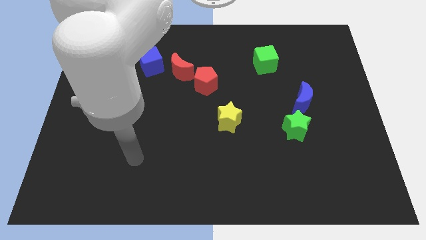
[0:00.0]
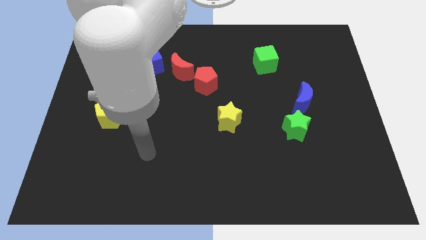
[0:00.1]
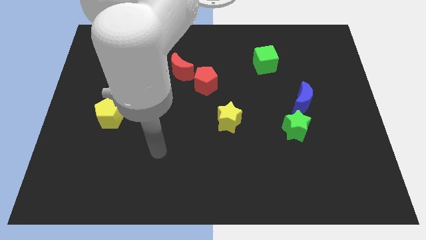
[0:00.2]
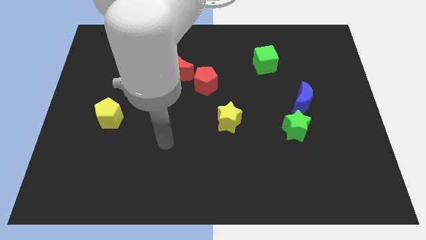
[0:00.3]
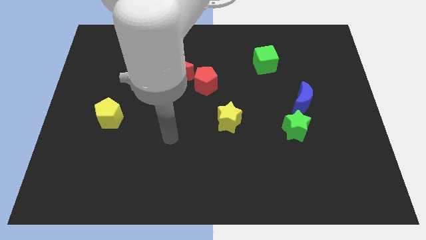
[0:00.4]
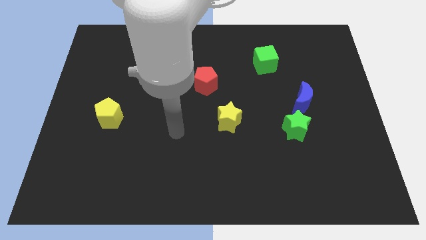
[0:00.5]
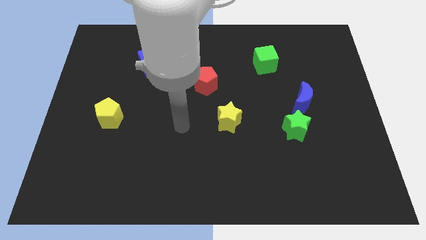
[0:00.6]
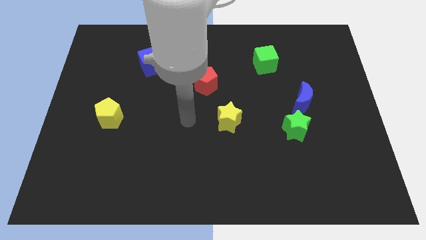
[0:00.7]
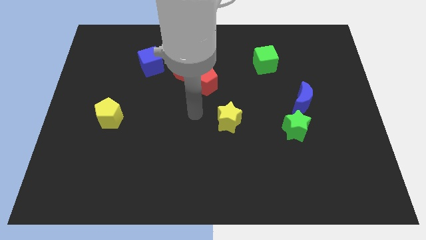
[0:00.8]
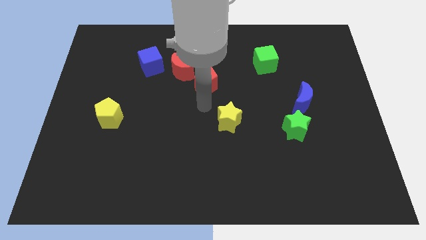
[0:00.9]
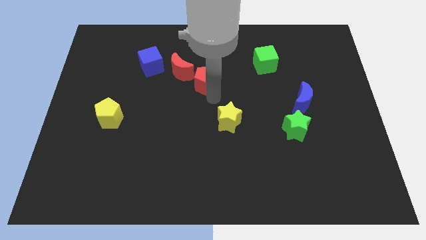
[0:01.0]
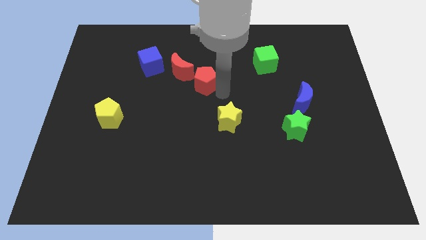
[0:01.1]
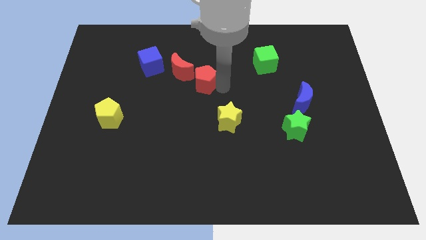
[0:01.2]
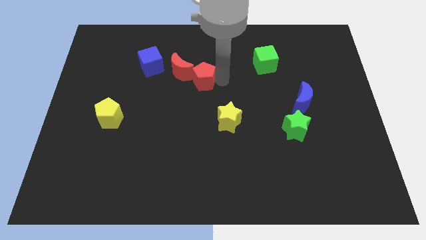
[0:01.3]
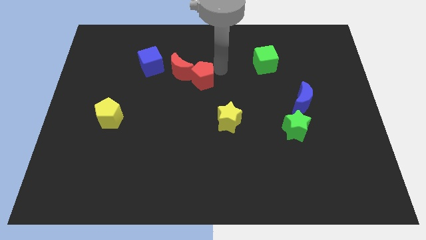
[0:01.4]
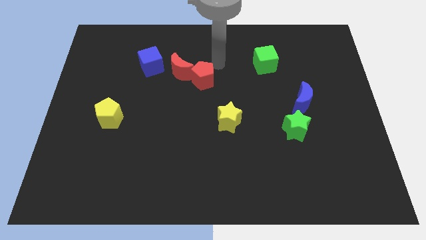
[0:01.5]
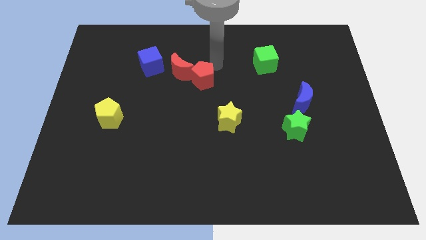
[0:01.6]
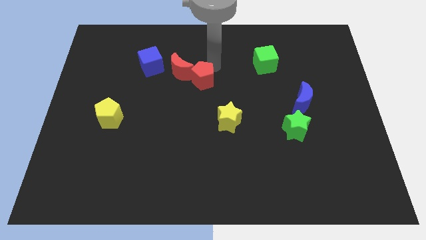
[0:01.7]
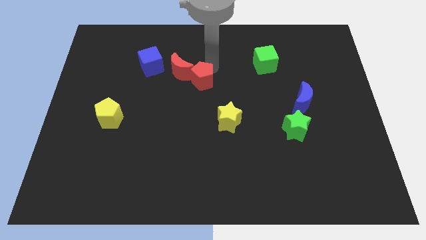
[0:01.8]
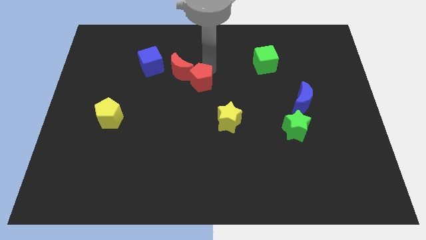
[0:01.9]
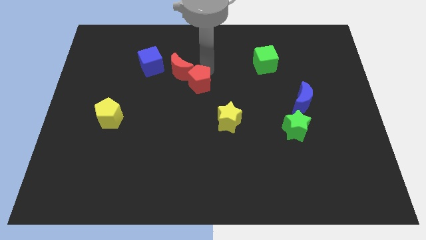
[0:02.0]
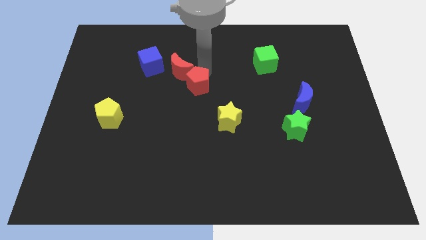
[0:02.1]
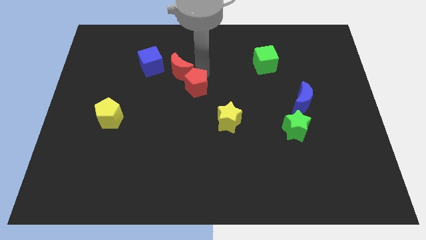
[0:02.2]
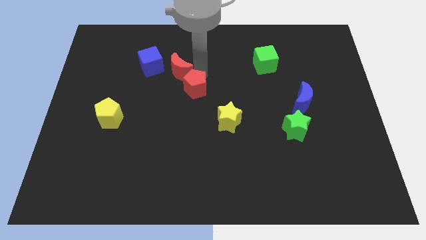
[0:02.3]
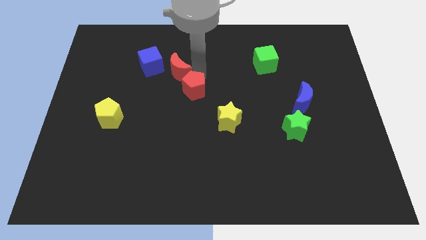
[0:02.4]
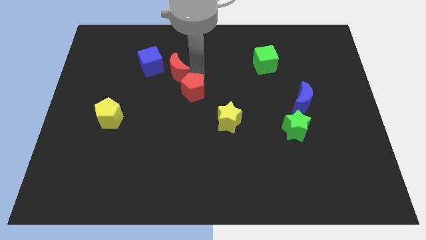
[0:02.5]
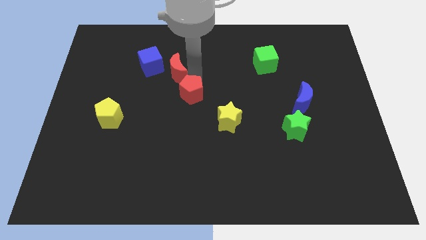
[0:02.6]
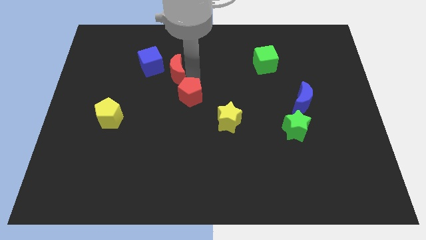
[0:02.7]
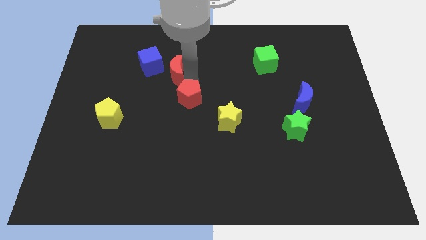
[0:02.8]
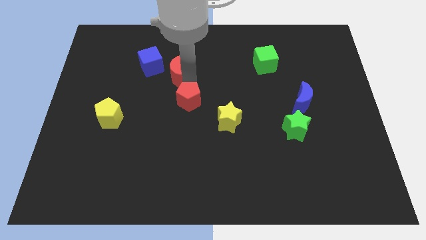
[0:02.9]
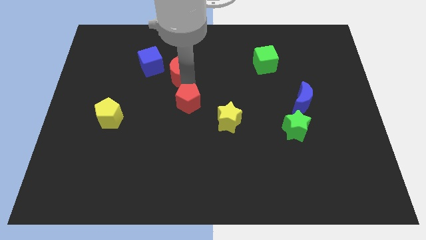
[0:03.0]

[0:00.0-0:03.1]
move the red pentagon a bit downwards and left diagonally

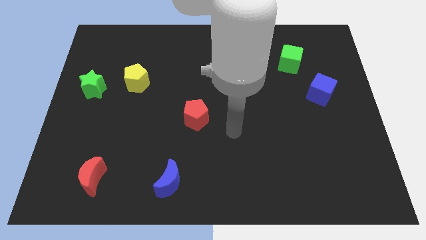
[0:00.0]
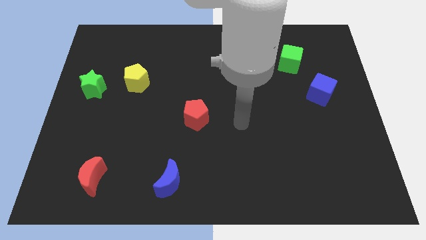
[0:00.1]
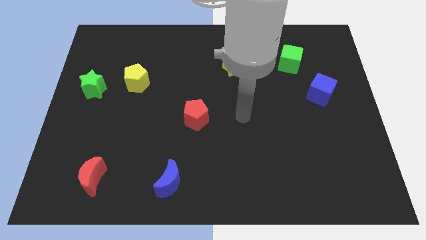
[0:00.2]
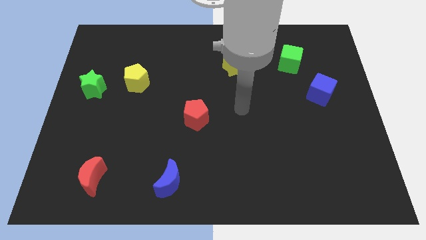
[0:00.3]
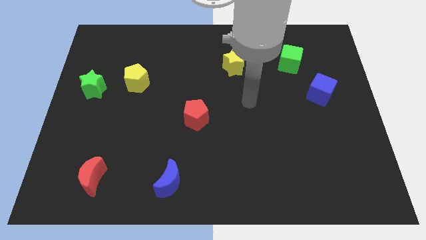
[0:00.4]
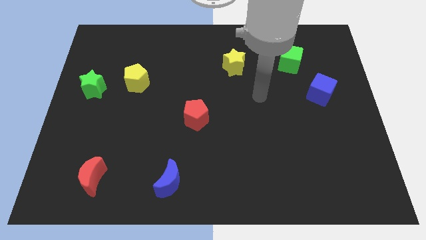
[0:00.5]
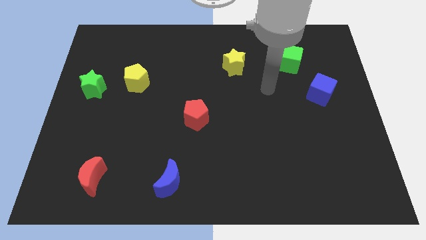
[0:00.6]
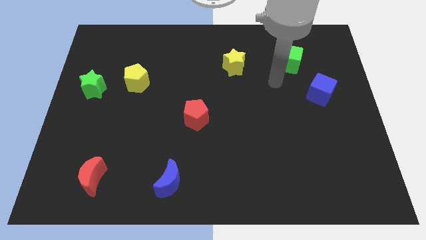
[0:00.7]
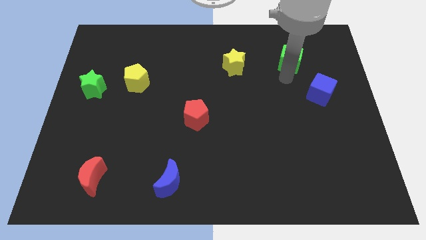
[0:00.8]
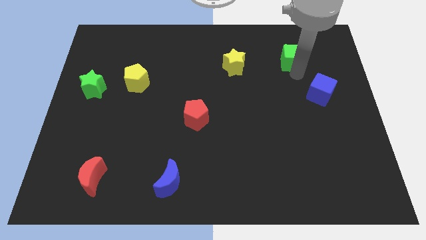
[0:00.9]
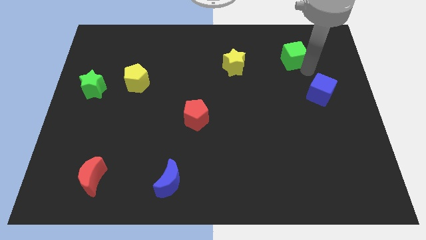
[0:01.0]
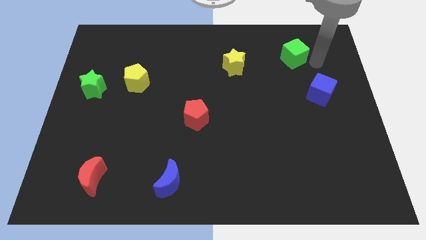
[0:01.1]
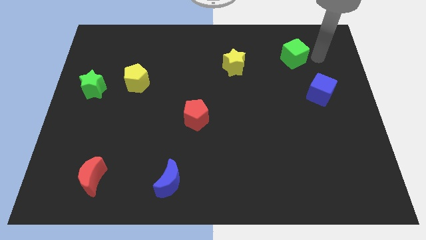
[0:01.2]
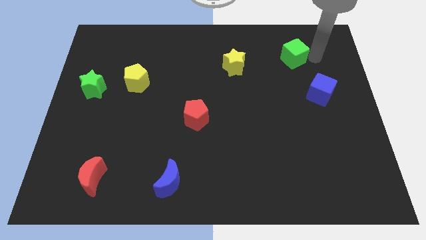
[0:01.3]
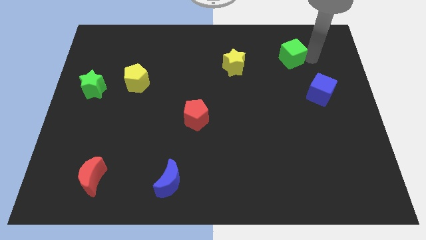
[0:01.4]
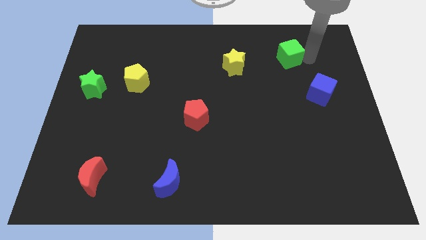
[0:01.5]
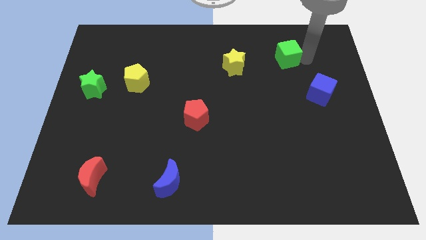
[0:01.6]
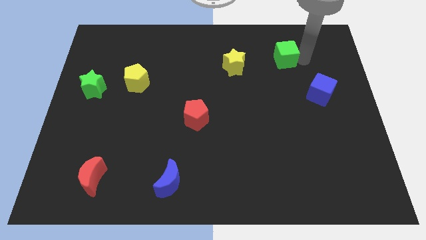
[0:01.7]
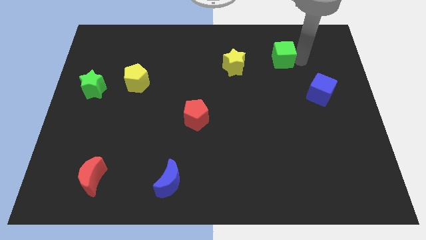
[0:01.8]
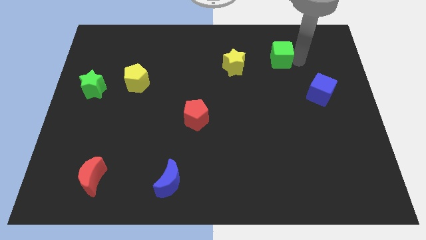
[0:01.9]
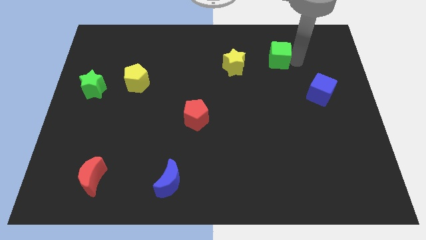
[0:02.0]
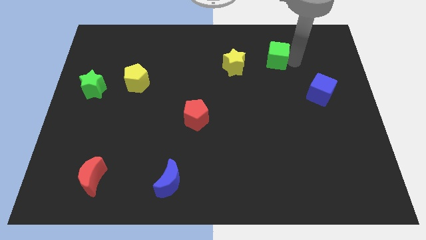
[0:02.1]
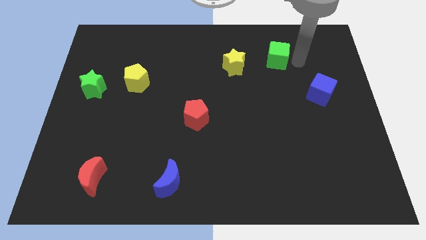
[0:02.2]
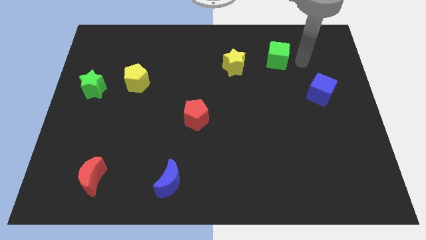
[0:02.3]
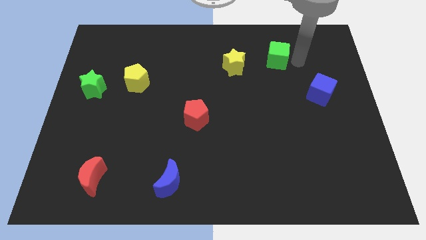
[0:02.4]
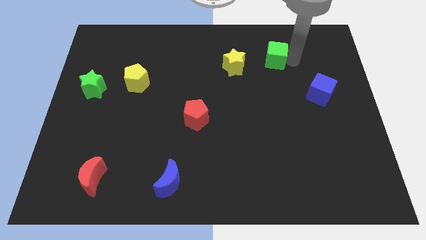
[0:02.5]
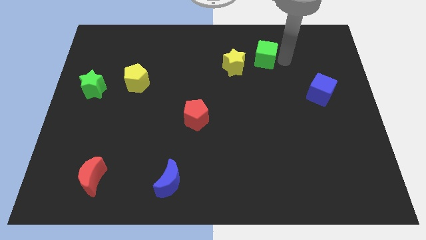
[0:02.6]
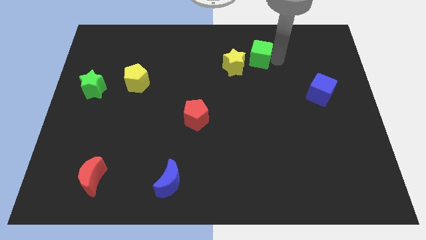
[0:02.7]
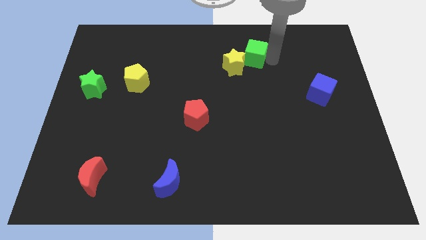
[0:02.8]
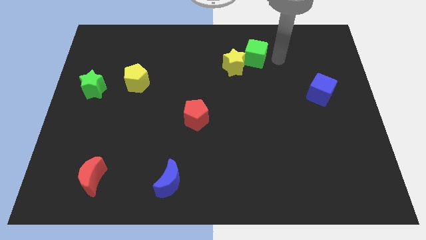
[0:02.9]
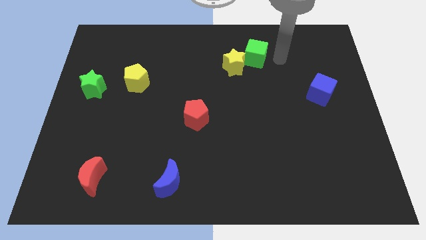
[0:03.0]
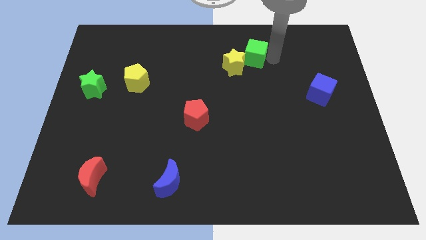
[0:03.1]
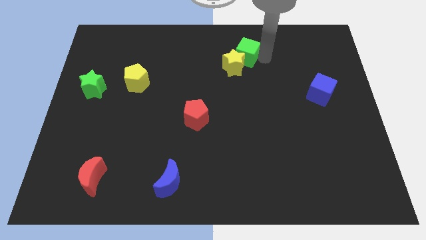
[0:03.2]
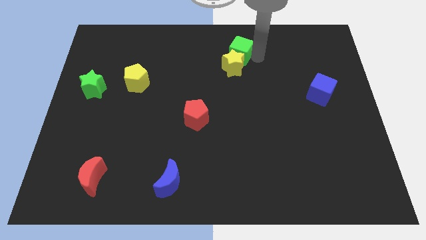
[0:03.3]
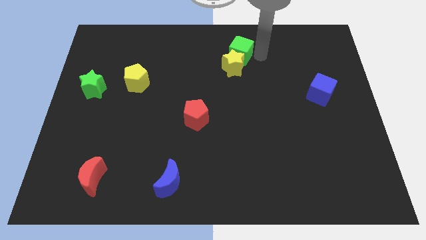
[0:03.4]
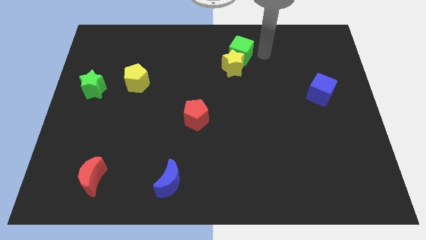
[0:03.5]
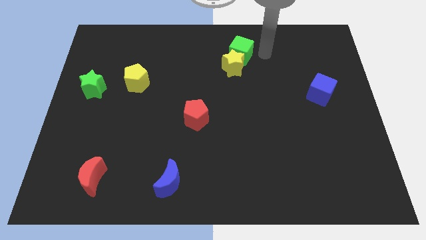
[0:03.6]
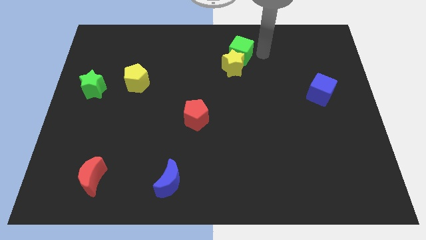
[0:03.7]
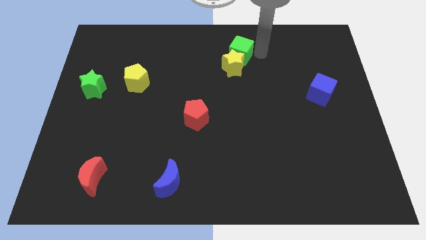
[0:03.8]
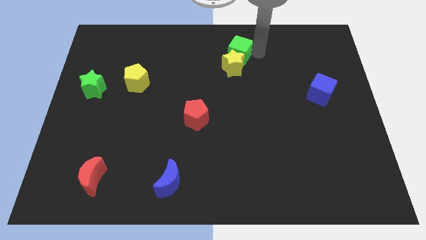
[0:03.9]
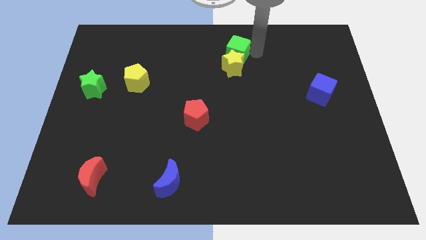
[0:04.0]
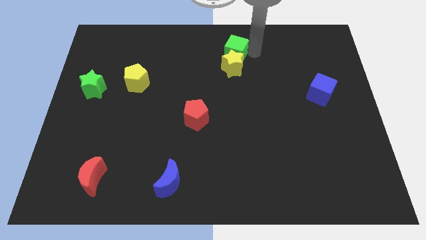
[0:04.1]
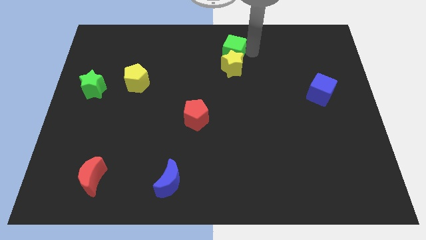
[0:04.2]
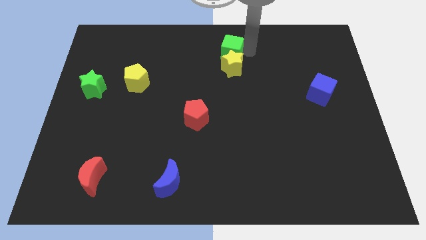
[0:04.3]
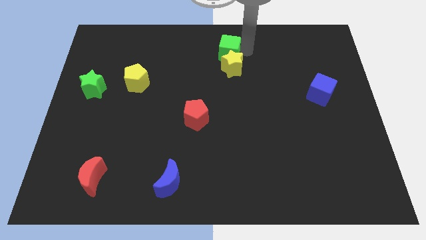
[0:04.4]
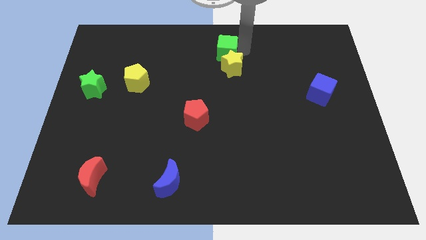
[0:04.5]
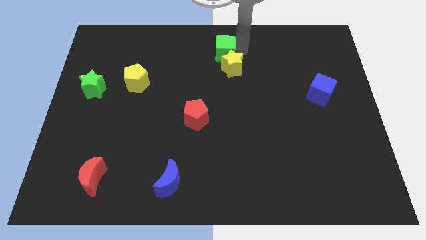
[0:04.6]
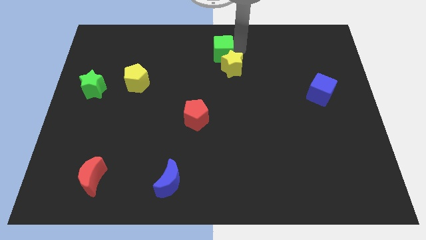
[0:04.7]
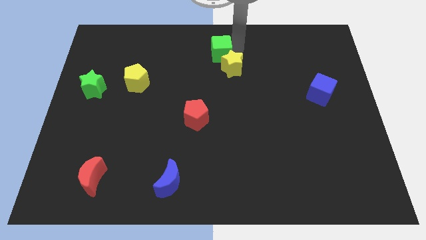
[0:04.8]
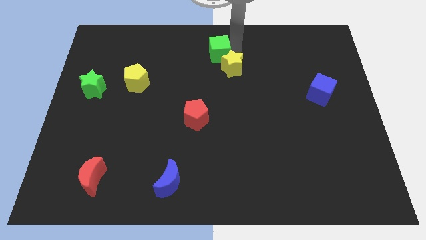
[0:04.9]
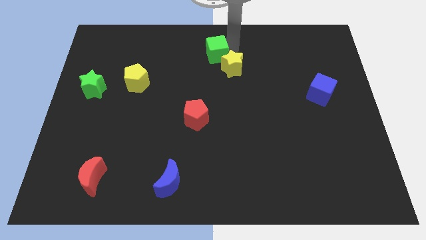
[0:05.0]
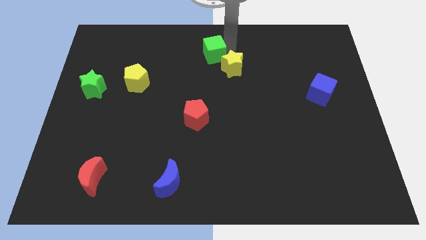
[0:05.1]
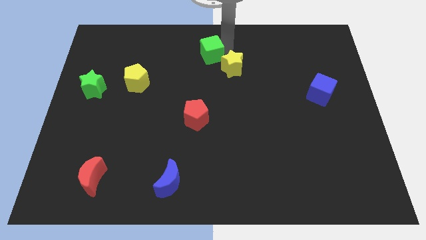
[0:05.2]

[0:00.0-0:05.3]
push the green cube left
